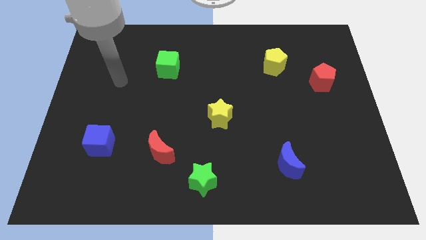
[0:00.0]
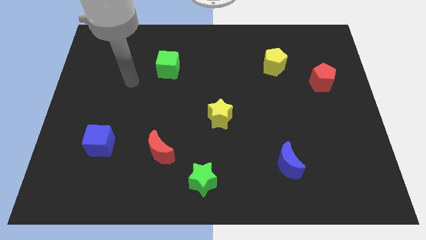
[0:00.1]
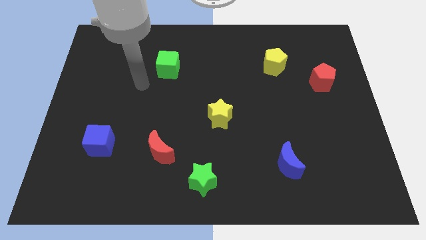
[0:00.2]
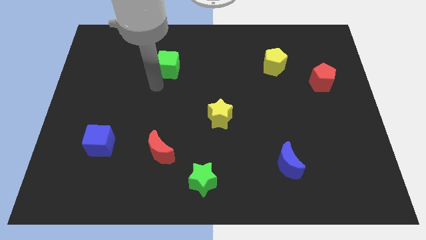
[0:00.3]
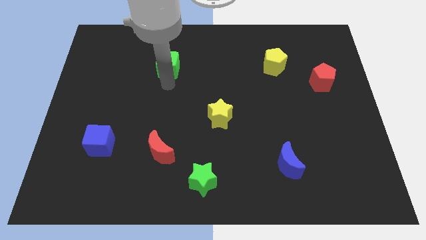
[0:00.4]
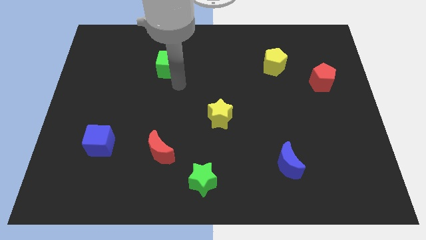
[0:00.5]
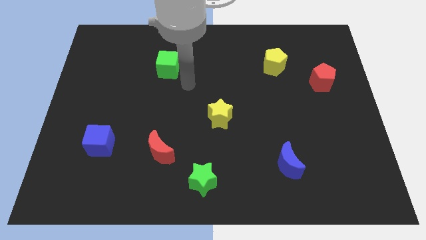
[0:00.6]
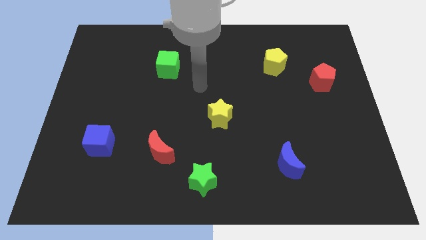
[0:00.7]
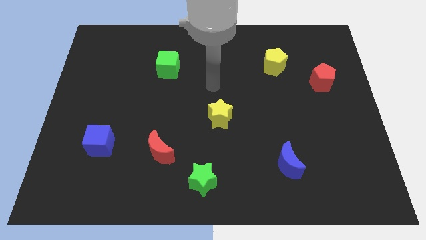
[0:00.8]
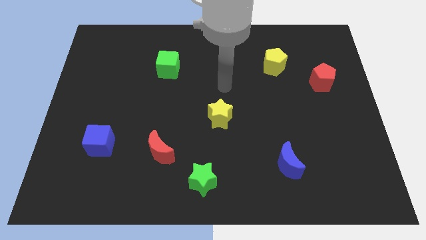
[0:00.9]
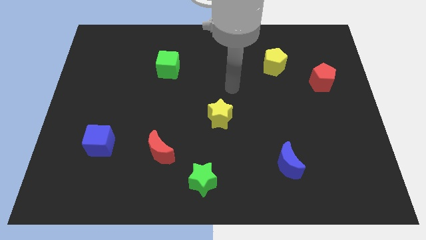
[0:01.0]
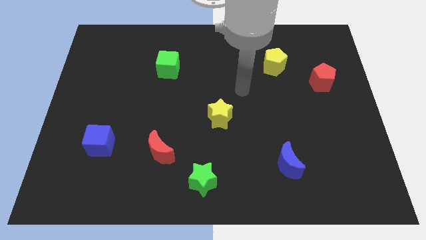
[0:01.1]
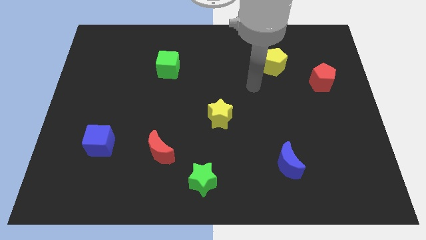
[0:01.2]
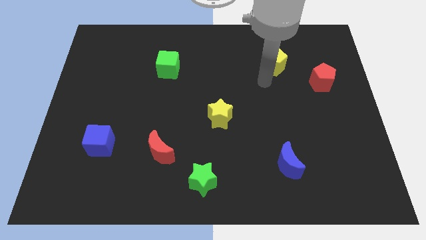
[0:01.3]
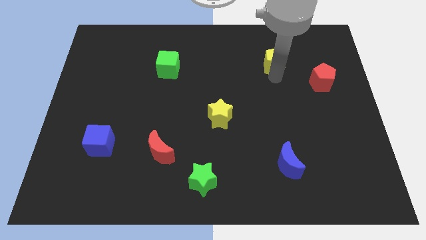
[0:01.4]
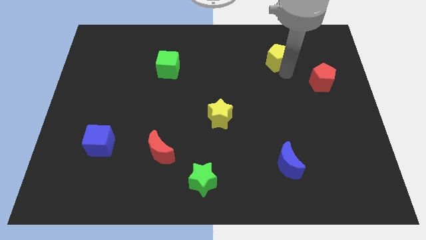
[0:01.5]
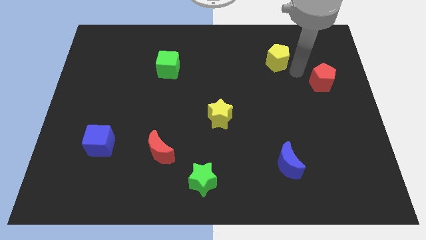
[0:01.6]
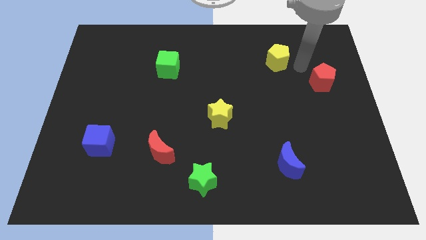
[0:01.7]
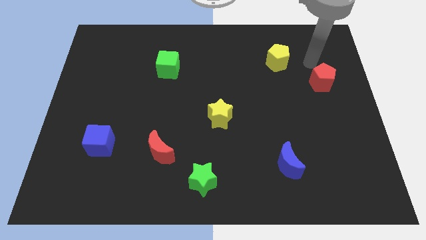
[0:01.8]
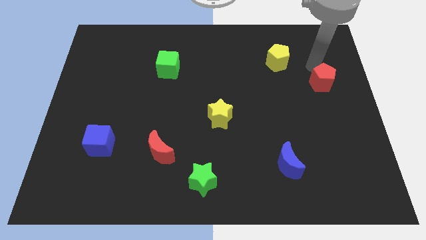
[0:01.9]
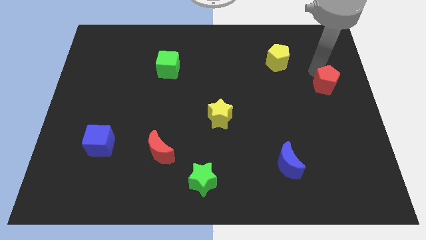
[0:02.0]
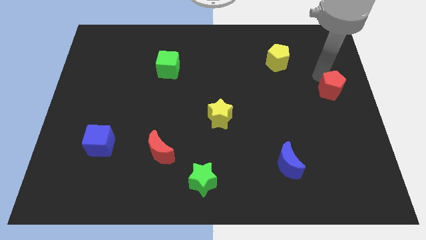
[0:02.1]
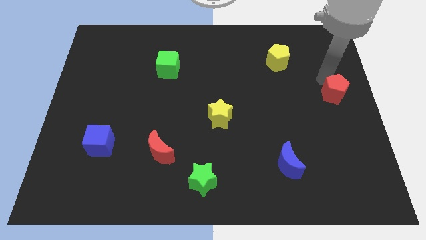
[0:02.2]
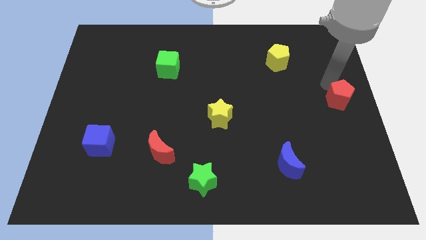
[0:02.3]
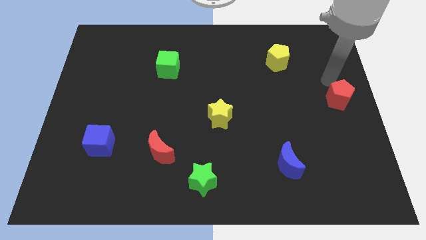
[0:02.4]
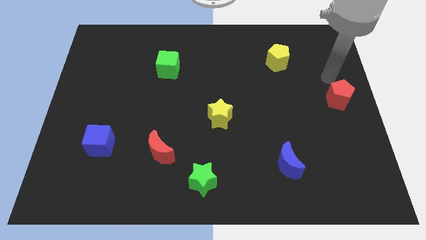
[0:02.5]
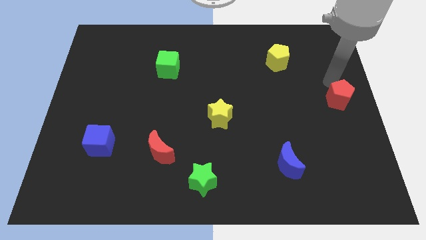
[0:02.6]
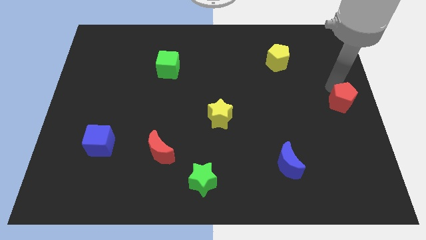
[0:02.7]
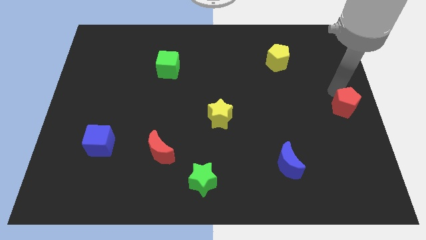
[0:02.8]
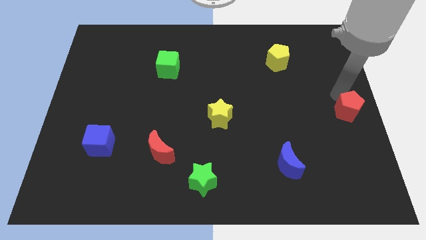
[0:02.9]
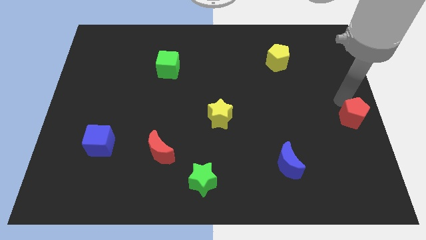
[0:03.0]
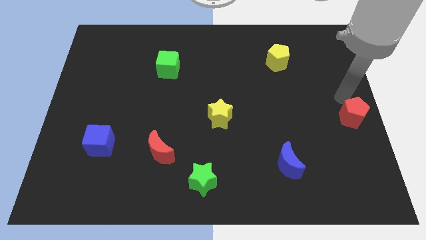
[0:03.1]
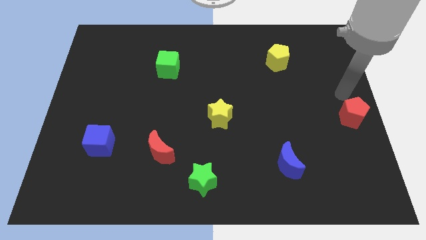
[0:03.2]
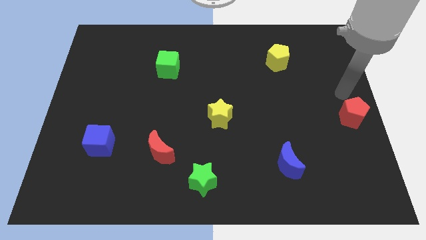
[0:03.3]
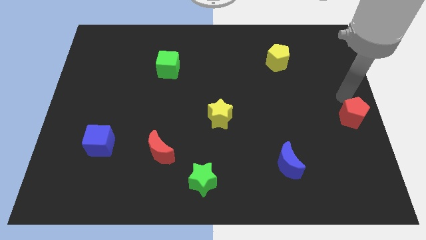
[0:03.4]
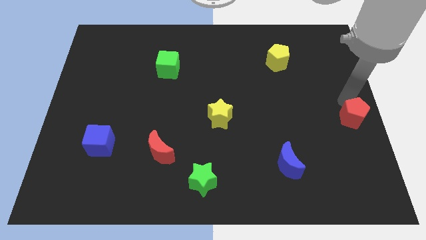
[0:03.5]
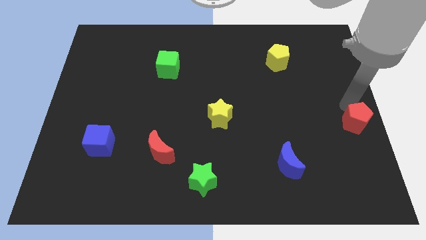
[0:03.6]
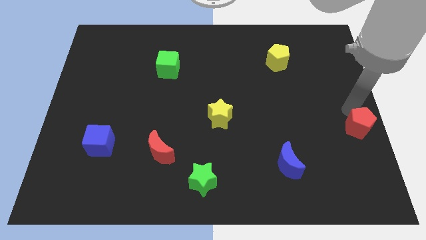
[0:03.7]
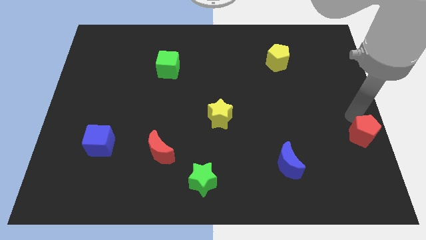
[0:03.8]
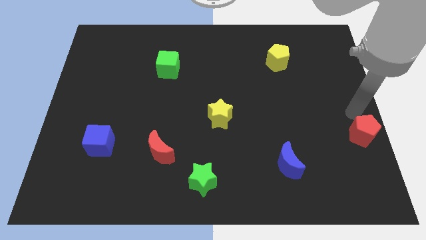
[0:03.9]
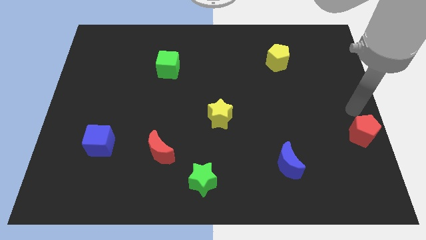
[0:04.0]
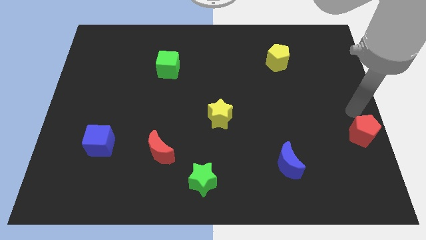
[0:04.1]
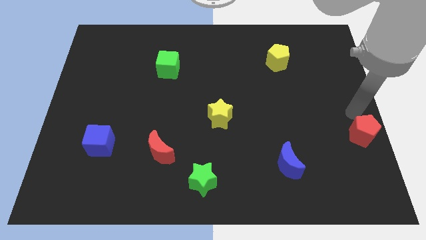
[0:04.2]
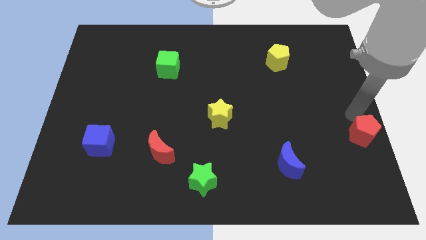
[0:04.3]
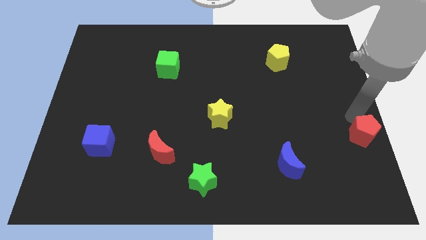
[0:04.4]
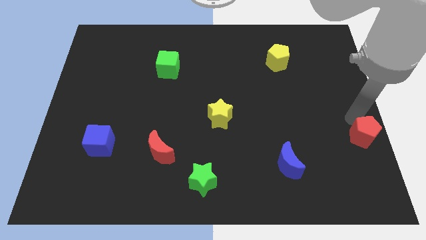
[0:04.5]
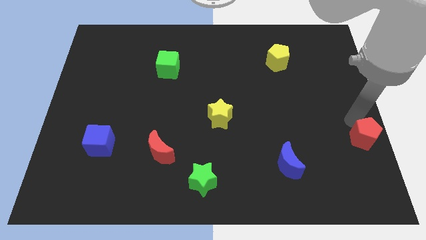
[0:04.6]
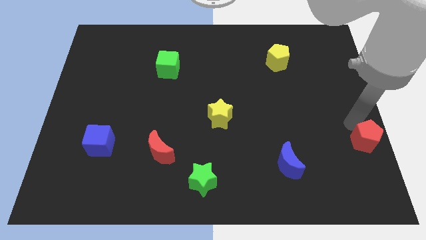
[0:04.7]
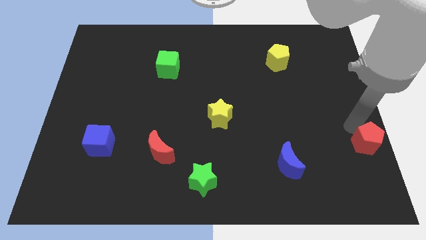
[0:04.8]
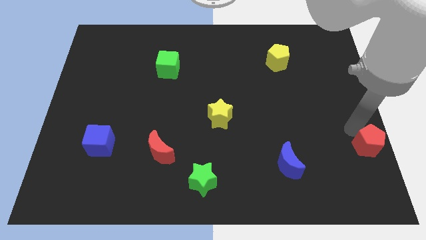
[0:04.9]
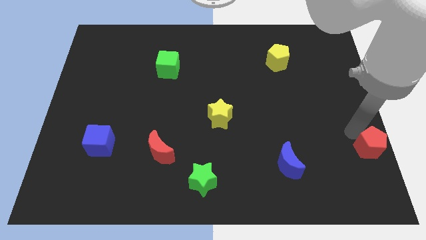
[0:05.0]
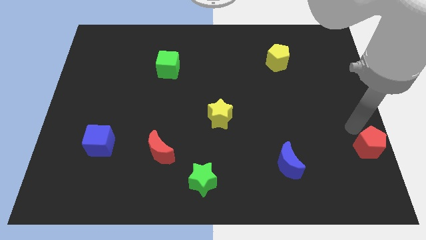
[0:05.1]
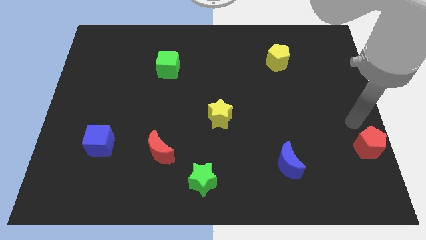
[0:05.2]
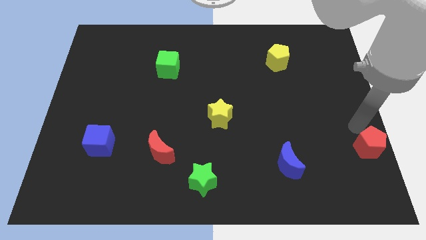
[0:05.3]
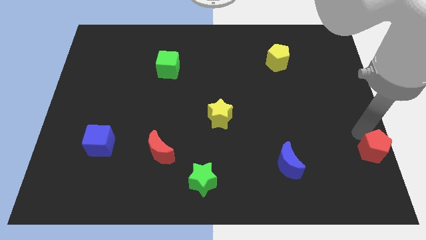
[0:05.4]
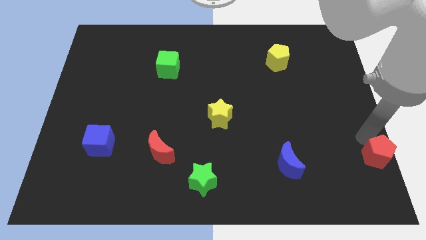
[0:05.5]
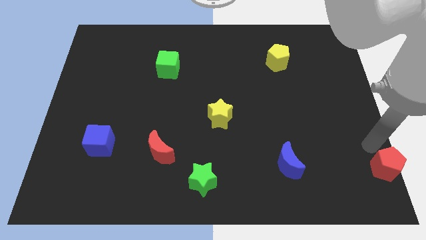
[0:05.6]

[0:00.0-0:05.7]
slide the red pentagon to the bottom right corner

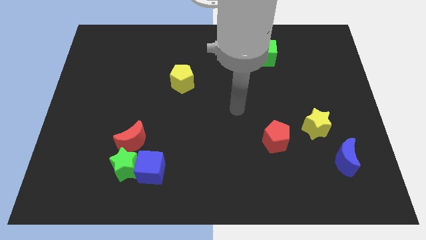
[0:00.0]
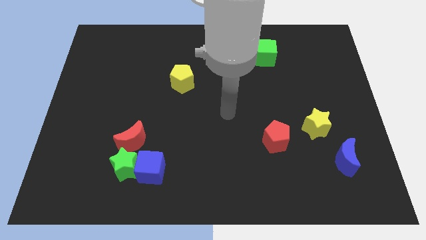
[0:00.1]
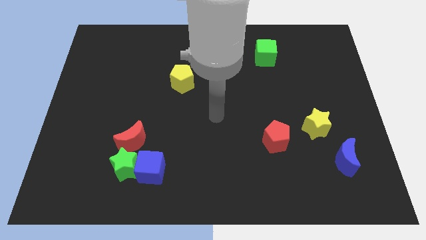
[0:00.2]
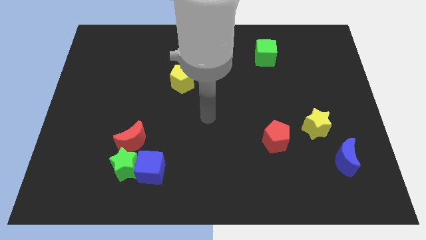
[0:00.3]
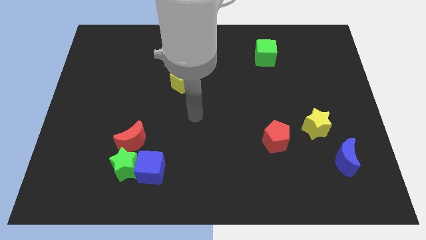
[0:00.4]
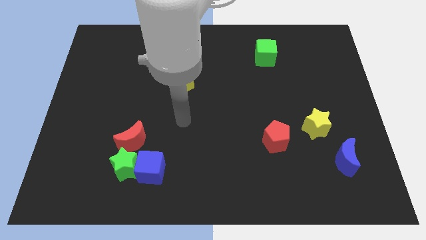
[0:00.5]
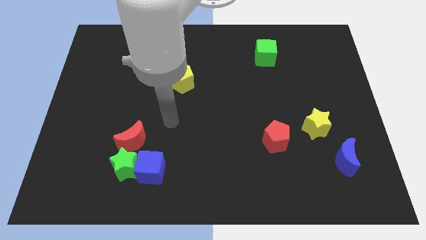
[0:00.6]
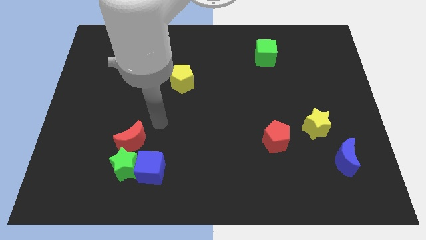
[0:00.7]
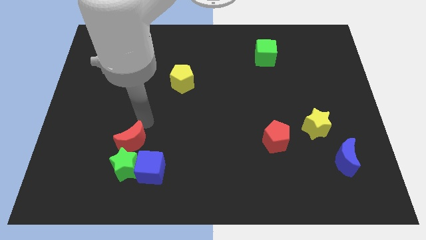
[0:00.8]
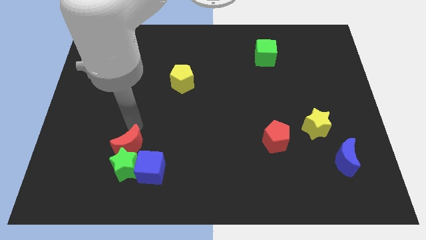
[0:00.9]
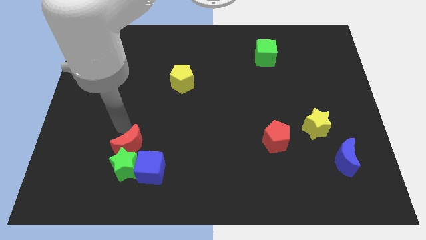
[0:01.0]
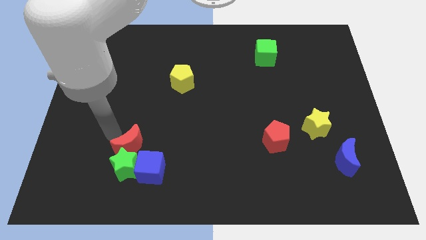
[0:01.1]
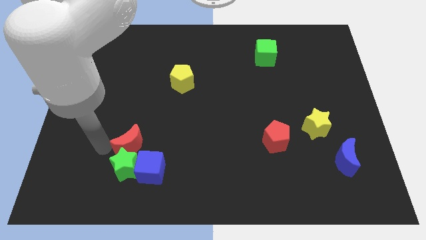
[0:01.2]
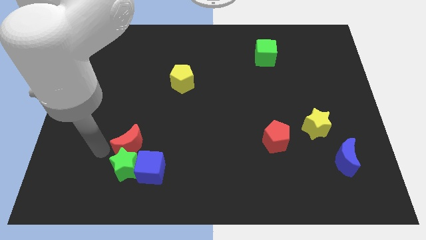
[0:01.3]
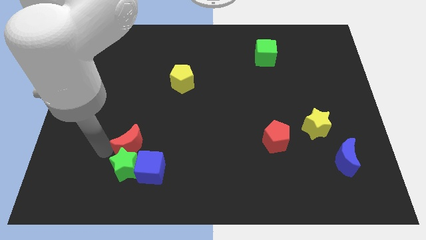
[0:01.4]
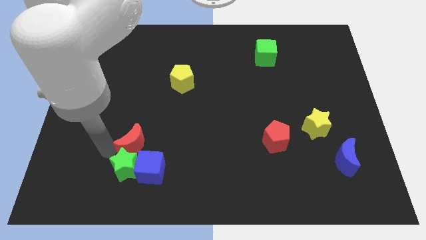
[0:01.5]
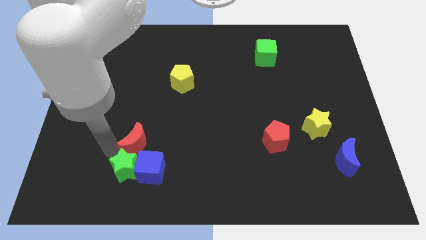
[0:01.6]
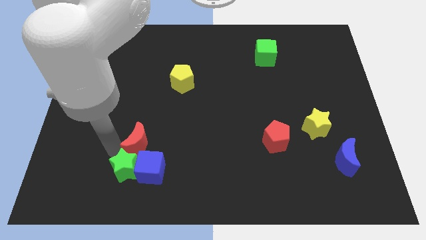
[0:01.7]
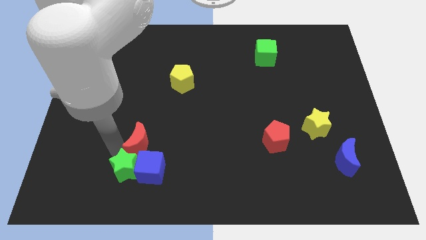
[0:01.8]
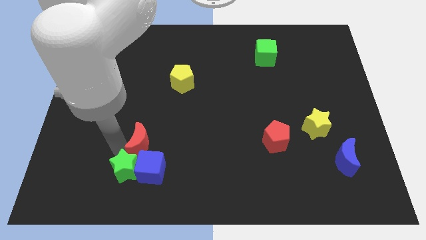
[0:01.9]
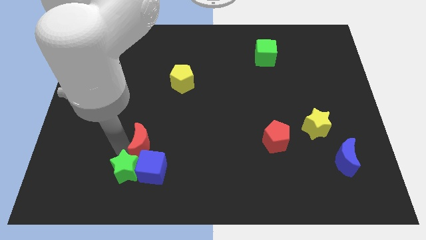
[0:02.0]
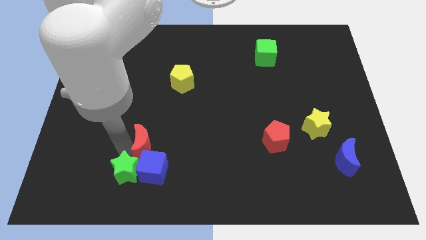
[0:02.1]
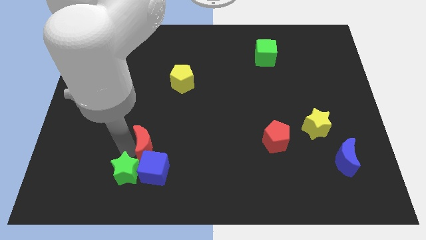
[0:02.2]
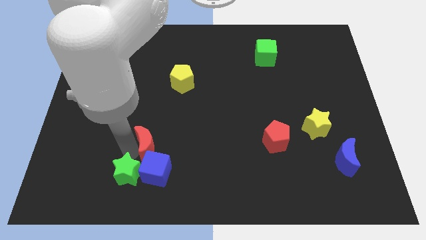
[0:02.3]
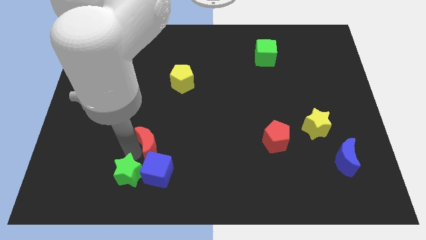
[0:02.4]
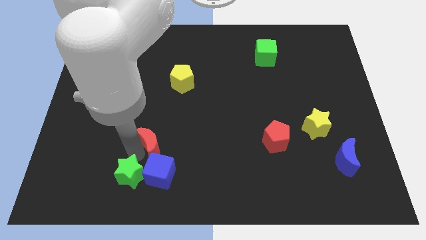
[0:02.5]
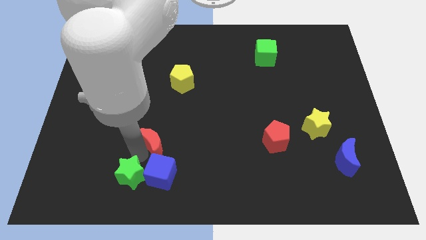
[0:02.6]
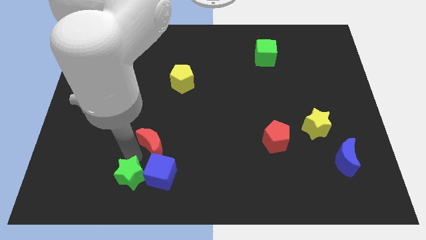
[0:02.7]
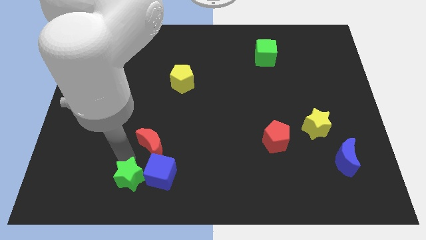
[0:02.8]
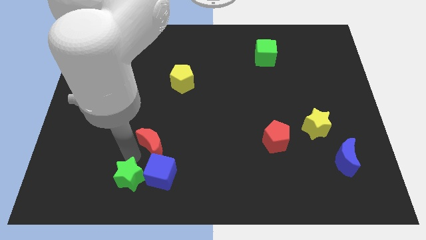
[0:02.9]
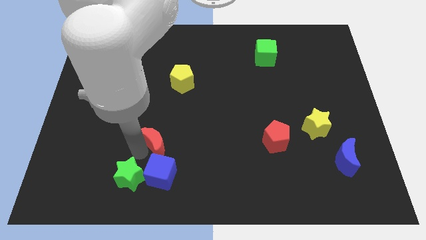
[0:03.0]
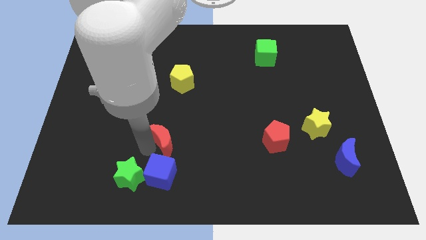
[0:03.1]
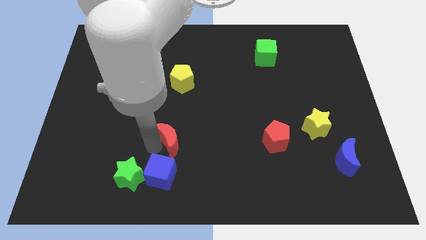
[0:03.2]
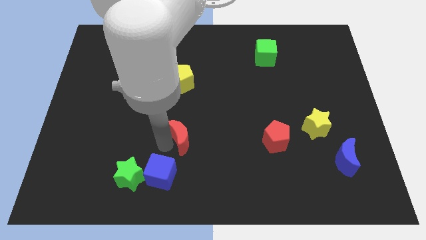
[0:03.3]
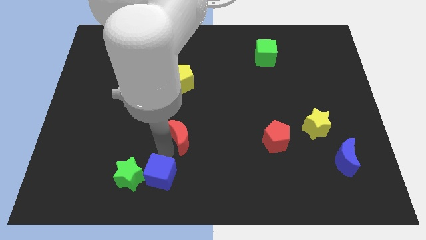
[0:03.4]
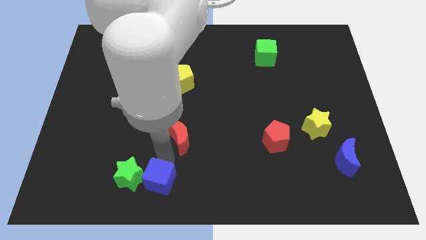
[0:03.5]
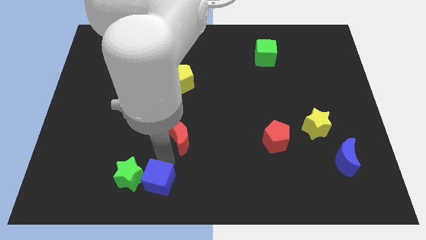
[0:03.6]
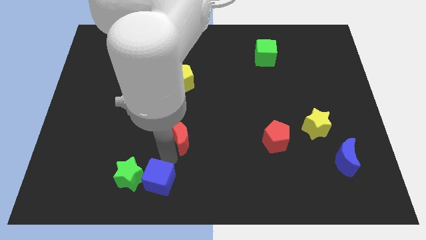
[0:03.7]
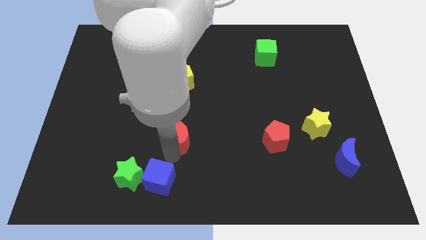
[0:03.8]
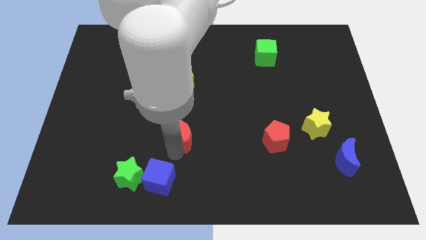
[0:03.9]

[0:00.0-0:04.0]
move the red moon to the middle of the board
